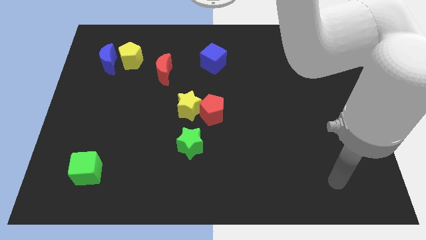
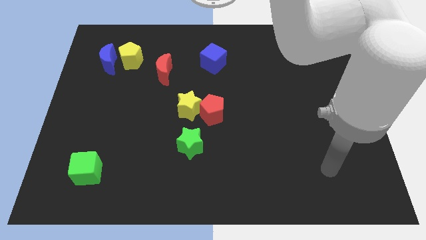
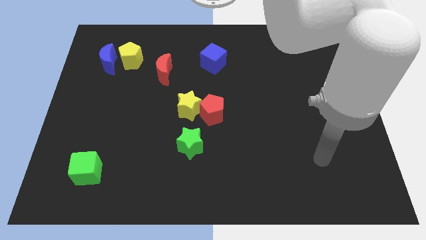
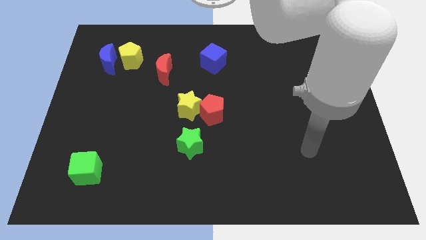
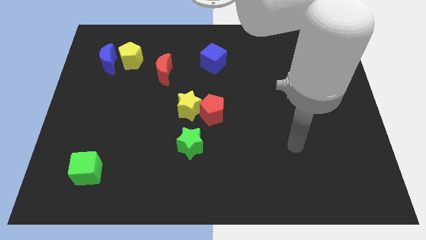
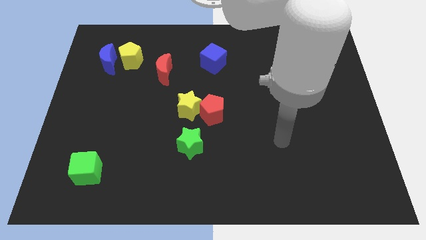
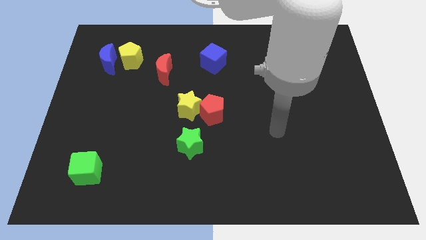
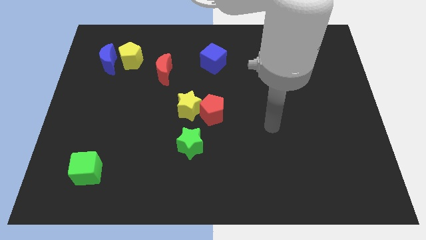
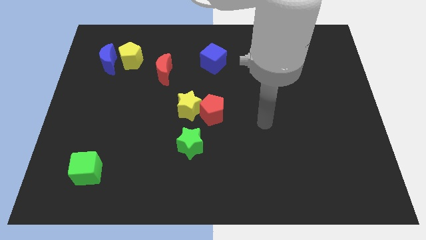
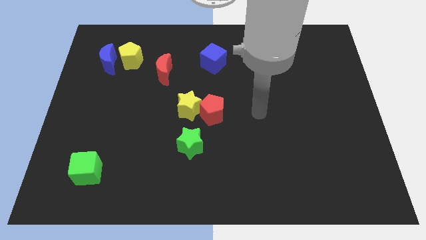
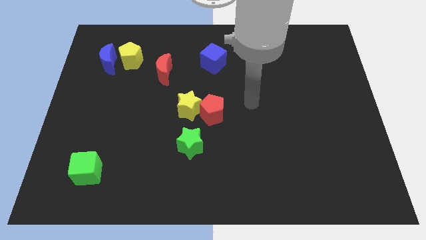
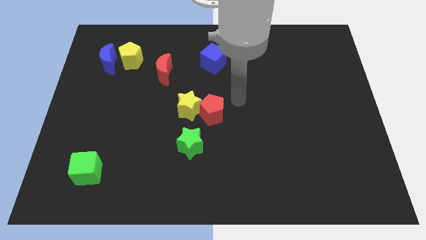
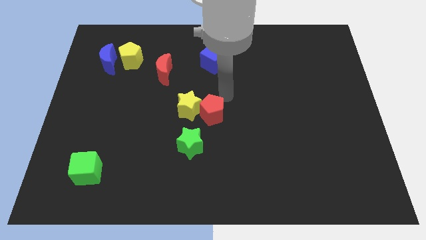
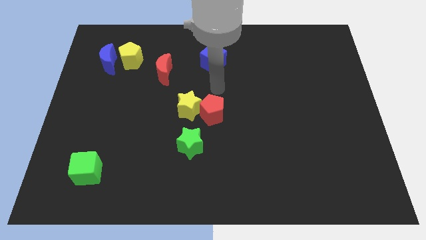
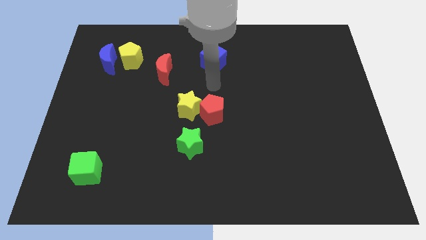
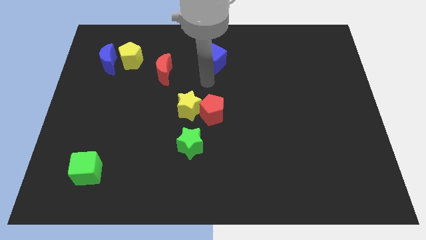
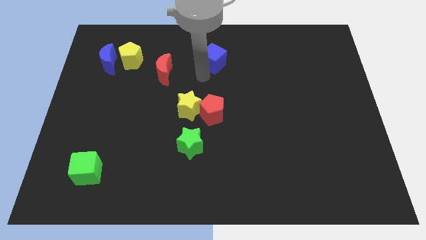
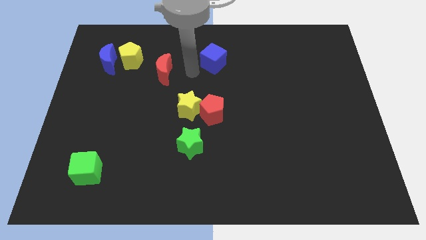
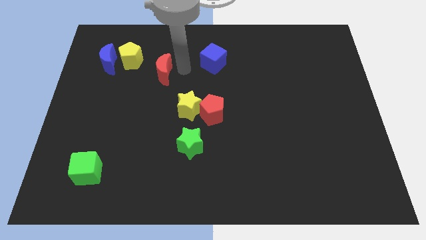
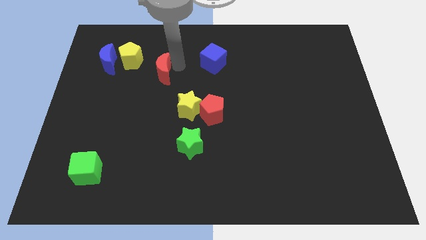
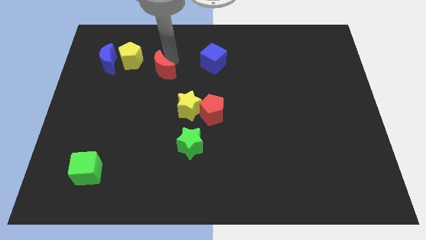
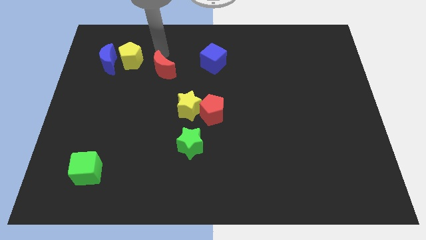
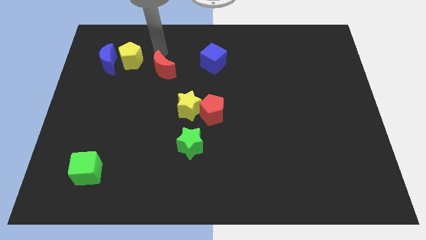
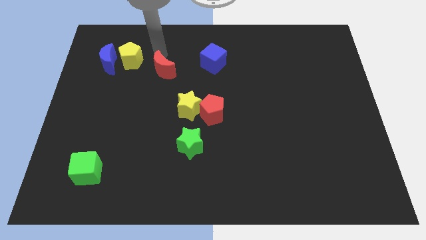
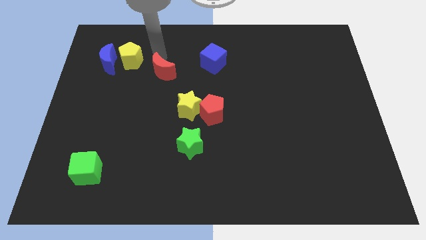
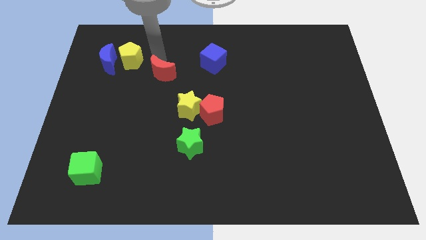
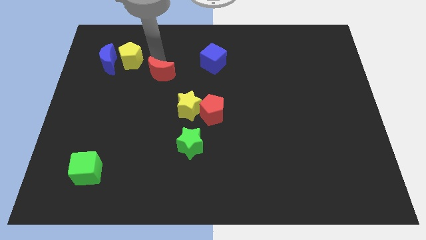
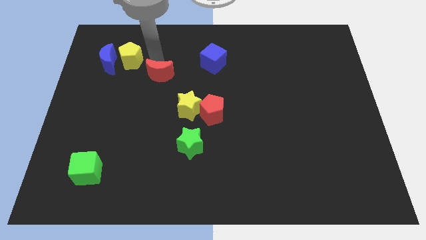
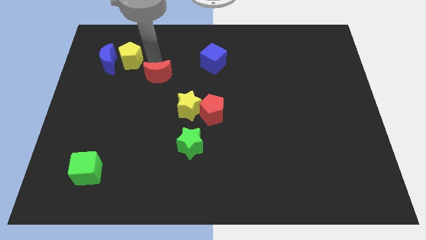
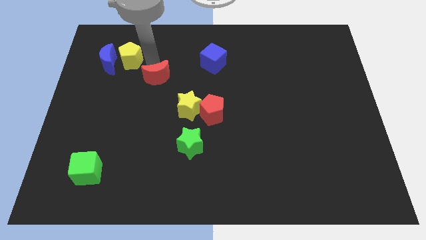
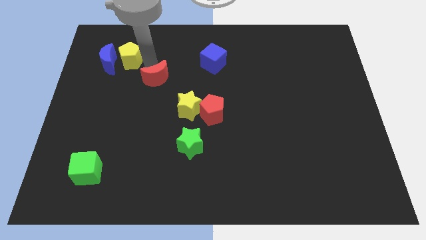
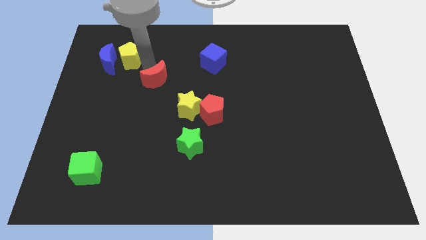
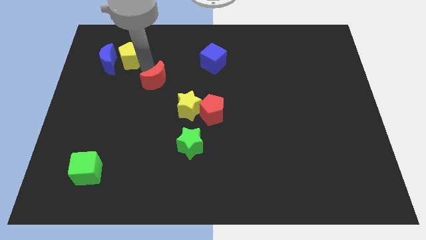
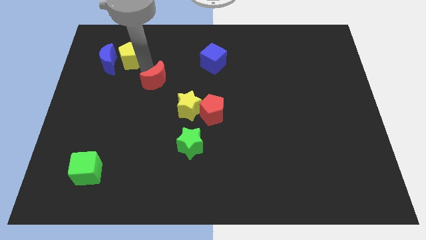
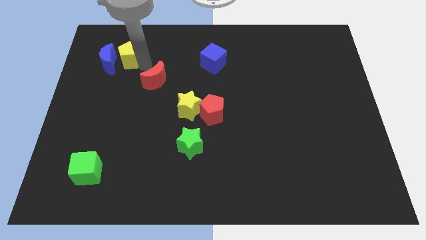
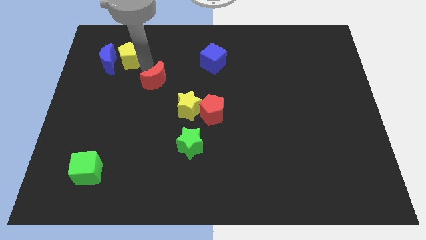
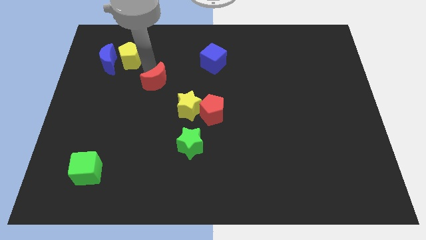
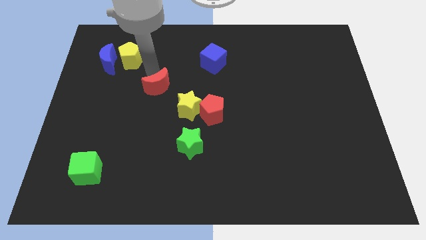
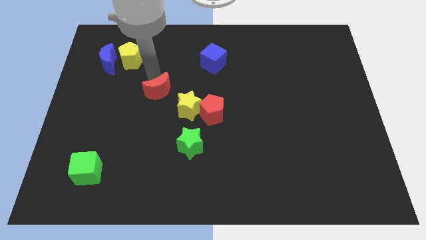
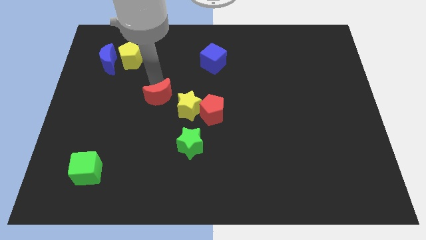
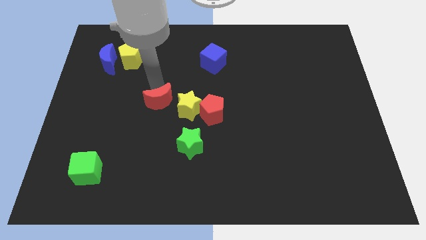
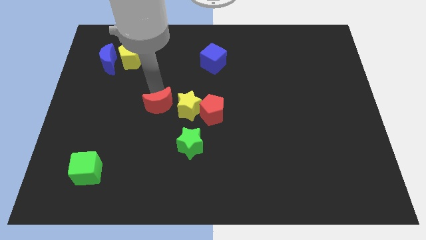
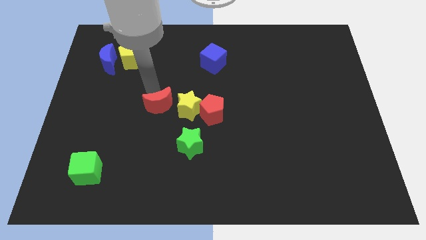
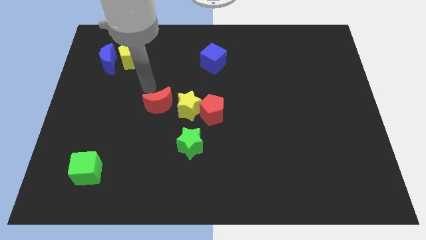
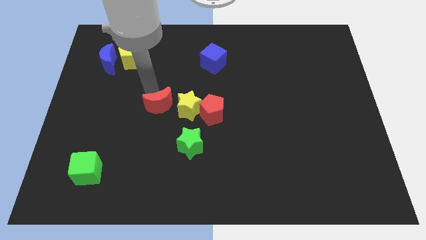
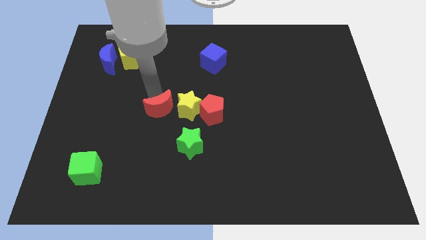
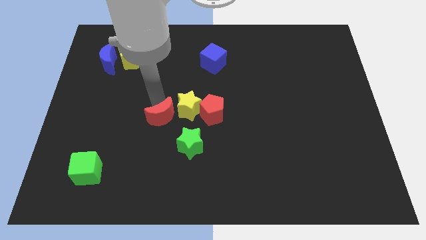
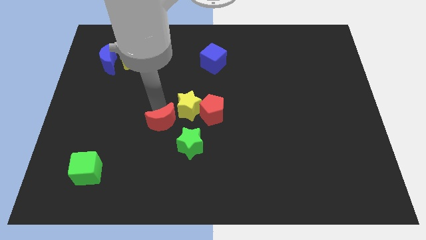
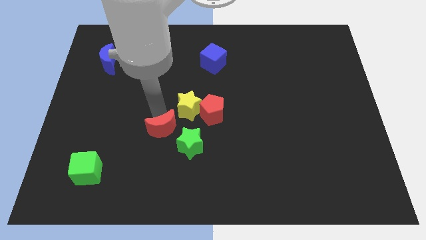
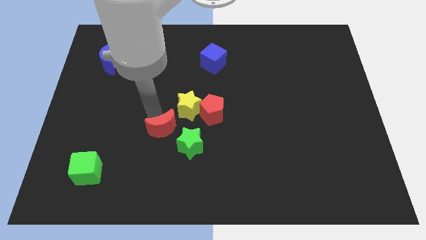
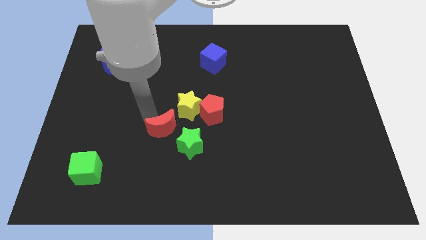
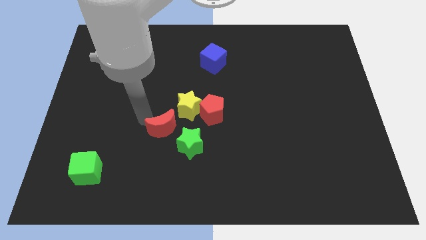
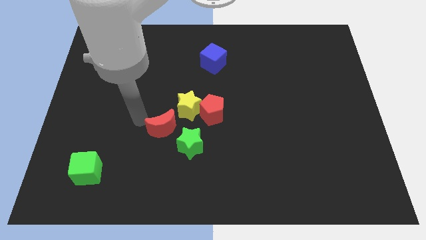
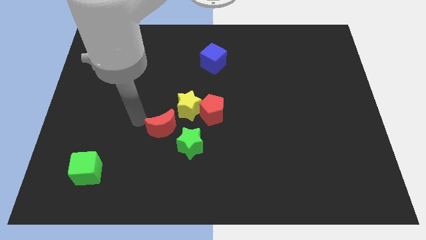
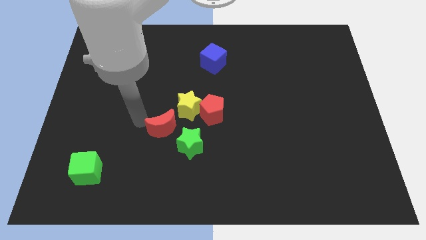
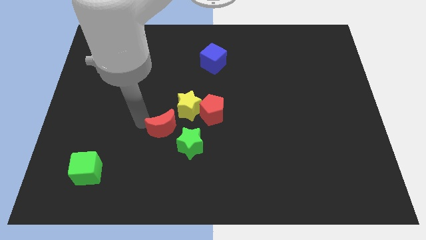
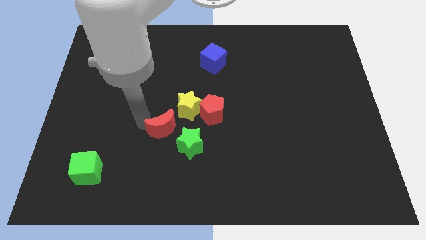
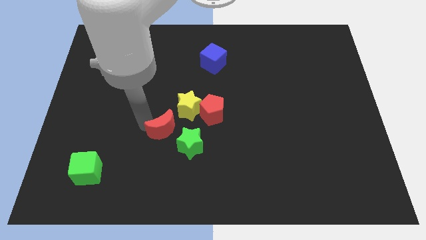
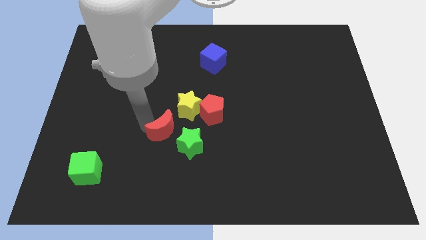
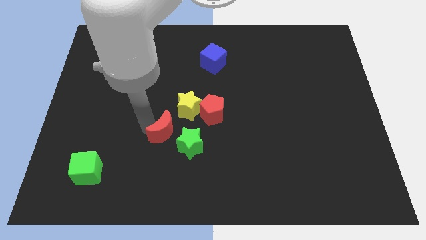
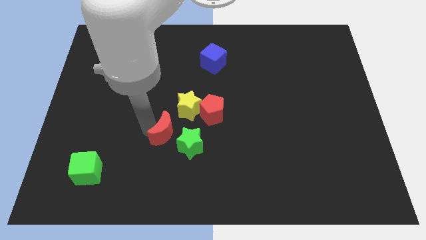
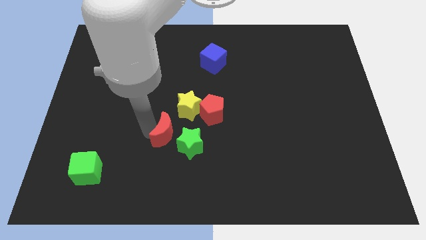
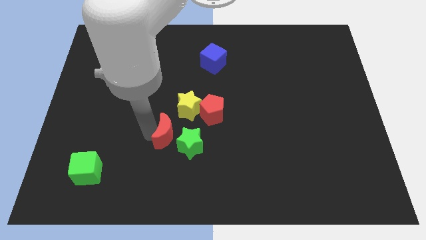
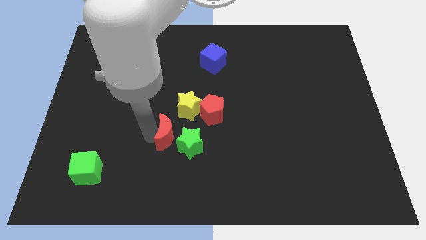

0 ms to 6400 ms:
slide the red moon to the green star
